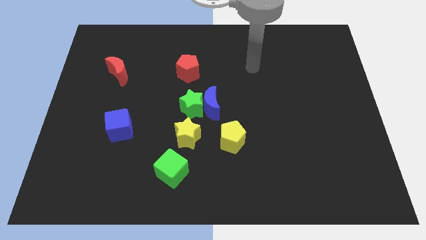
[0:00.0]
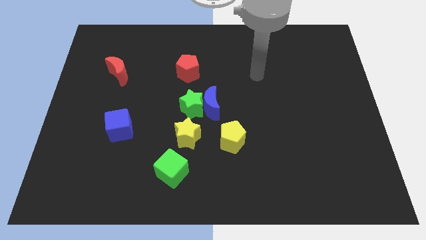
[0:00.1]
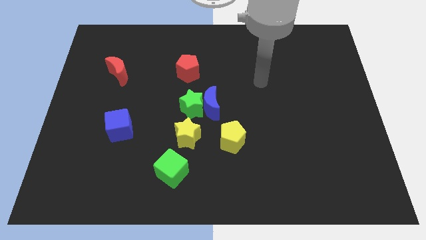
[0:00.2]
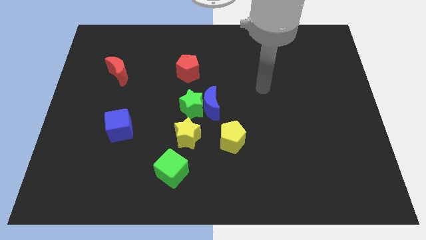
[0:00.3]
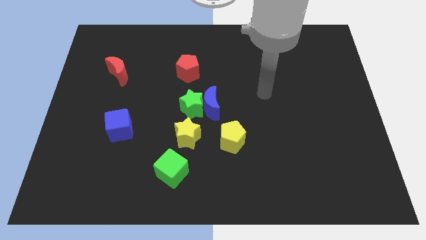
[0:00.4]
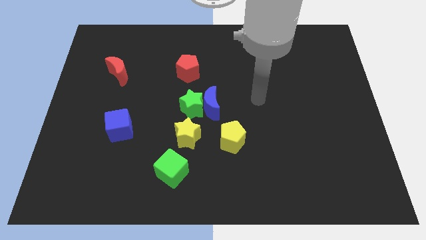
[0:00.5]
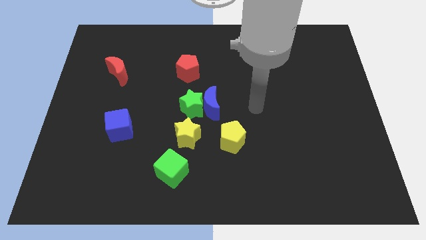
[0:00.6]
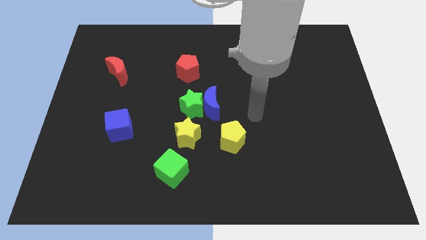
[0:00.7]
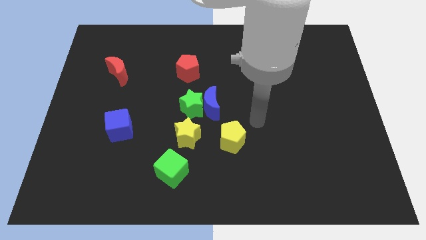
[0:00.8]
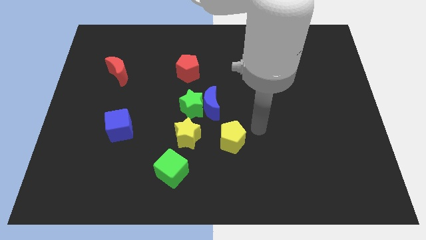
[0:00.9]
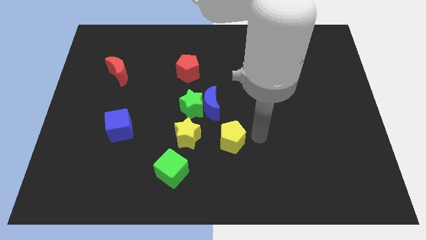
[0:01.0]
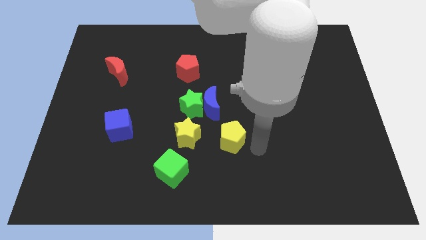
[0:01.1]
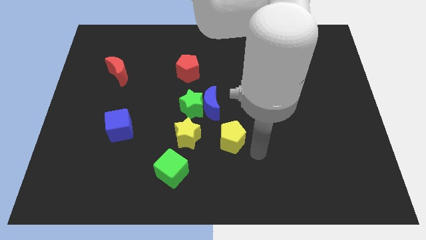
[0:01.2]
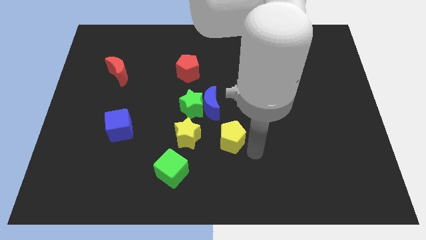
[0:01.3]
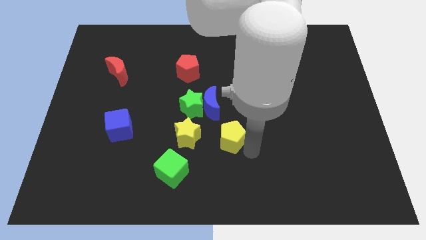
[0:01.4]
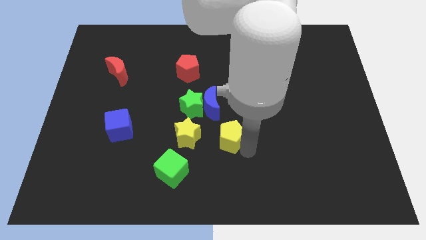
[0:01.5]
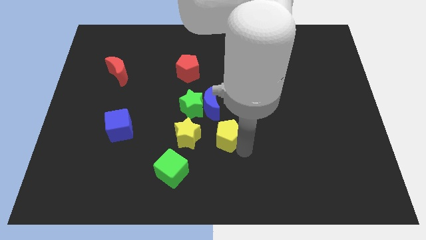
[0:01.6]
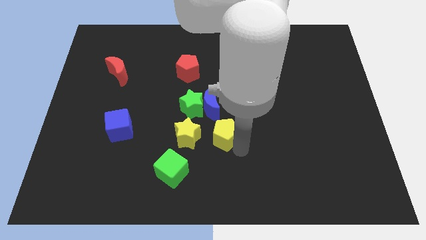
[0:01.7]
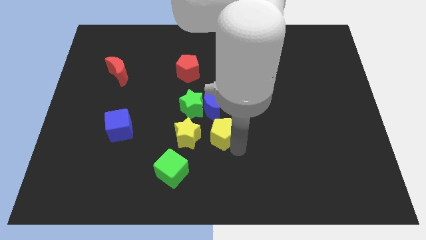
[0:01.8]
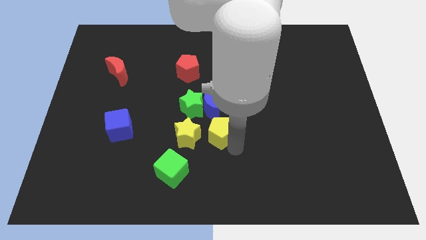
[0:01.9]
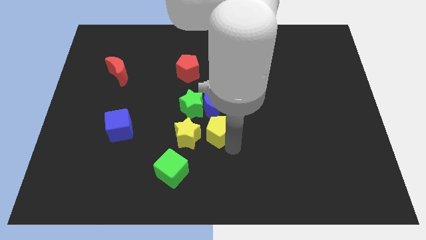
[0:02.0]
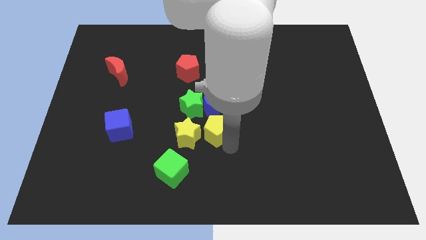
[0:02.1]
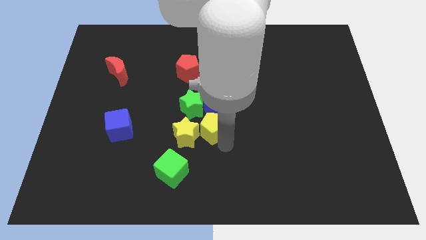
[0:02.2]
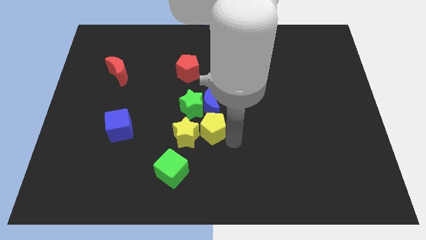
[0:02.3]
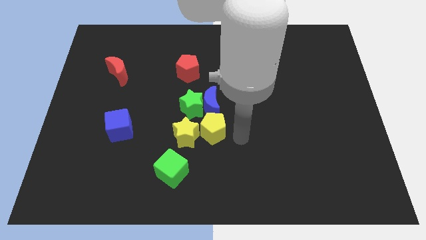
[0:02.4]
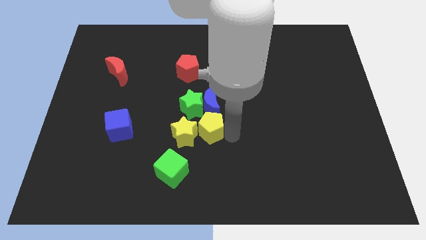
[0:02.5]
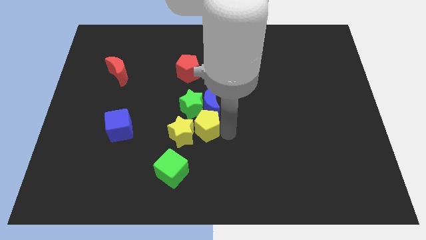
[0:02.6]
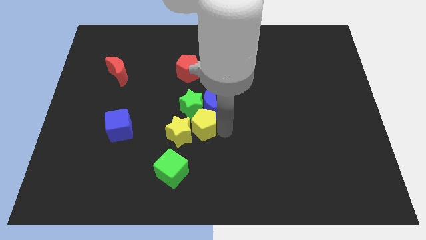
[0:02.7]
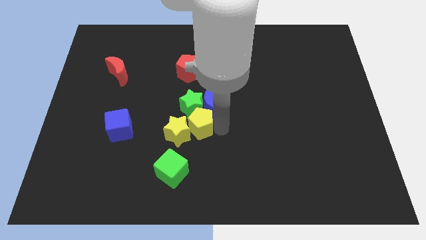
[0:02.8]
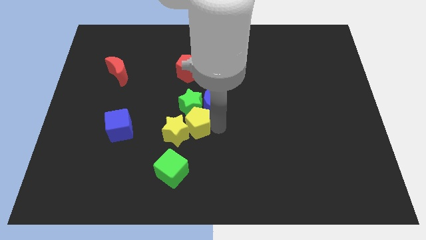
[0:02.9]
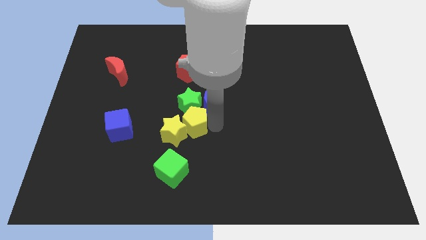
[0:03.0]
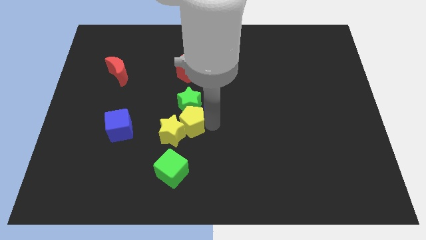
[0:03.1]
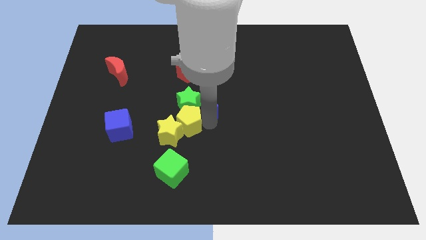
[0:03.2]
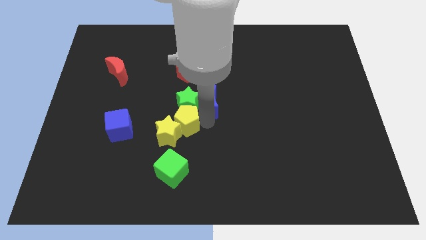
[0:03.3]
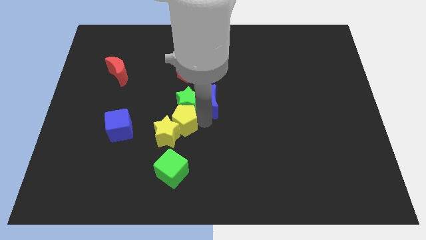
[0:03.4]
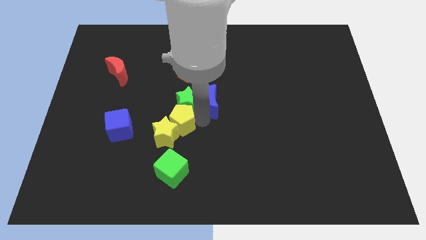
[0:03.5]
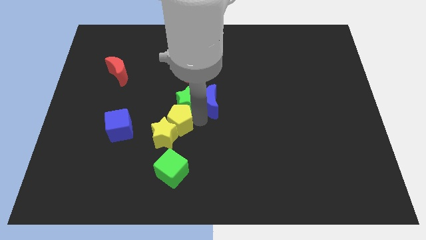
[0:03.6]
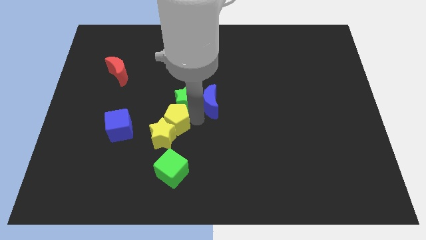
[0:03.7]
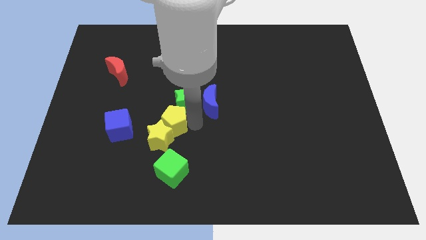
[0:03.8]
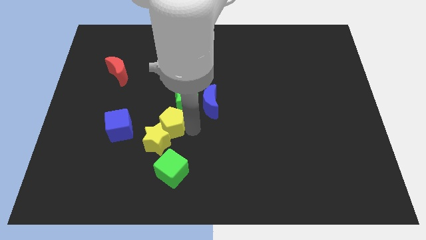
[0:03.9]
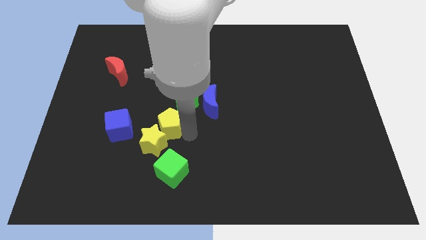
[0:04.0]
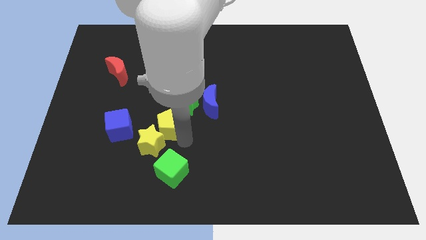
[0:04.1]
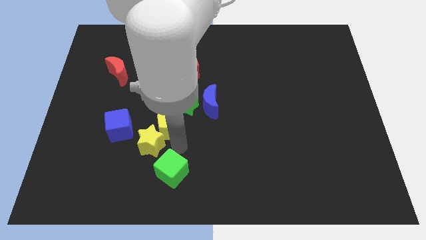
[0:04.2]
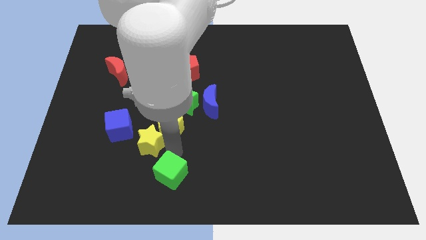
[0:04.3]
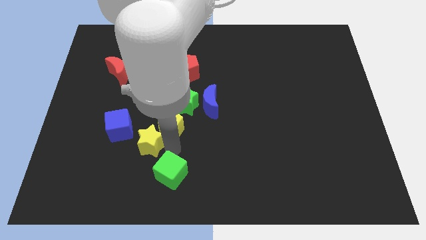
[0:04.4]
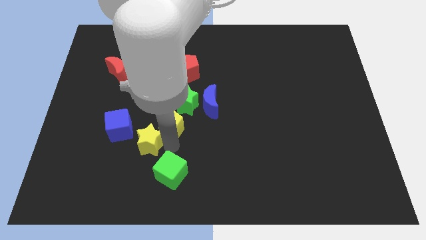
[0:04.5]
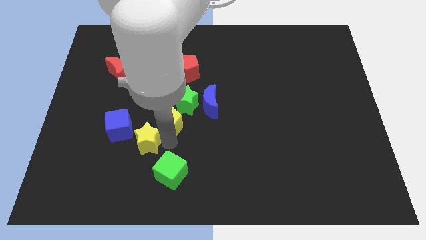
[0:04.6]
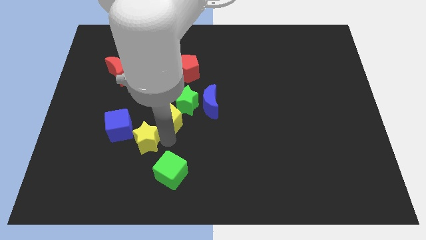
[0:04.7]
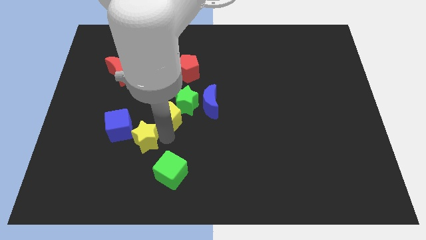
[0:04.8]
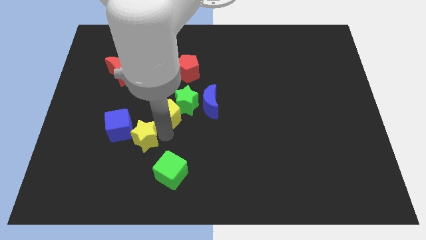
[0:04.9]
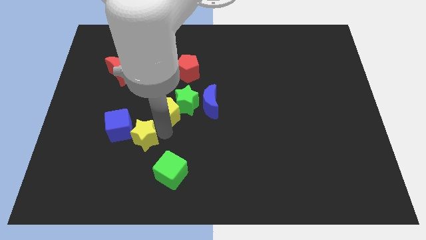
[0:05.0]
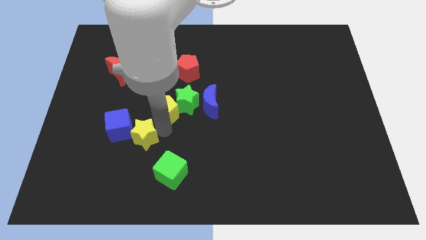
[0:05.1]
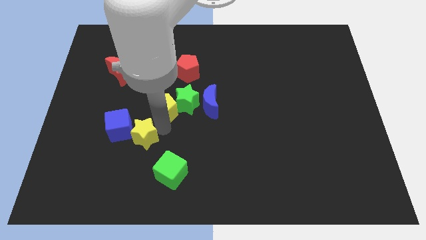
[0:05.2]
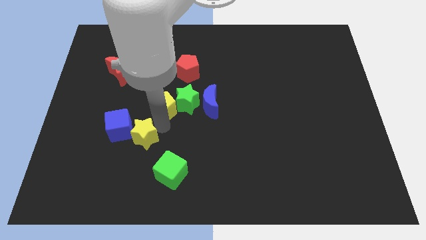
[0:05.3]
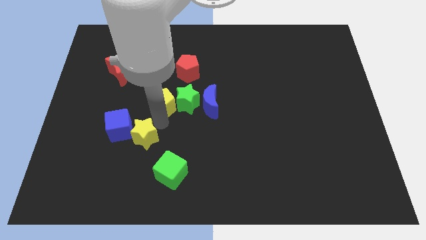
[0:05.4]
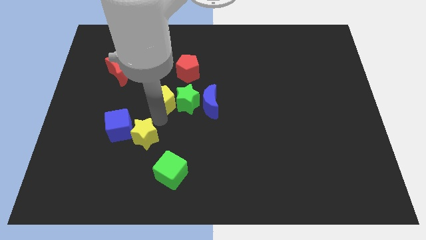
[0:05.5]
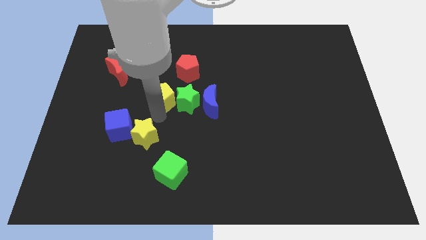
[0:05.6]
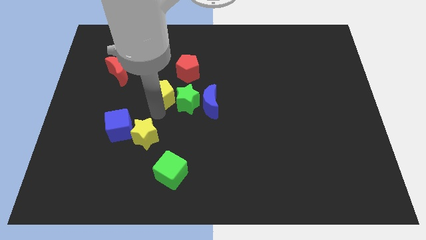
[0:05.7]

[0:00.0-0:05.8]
move the yellow pentagon diagonally upwards and left

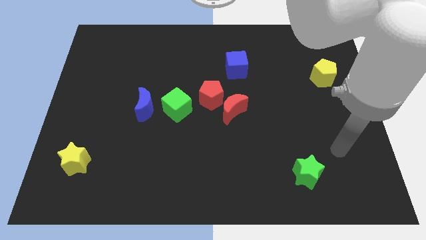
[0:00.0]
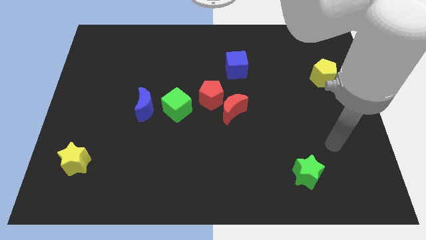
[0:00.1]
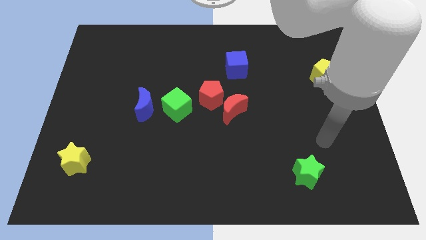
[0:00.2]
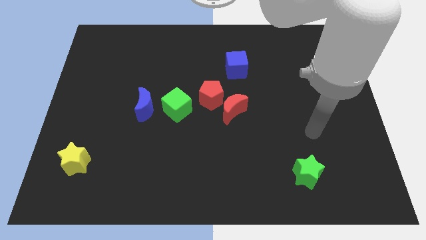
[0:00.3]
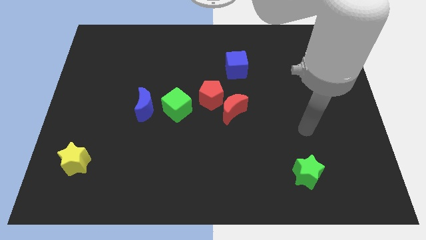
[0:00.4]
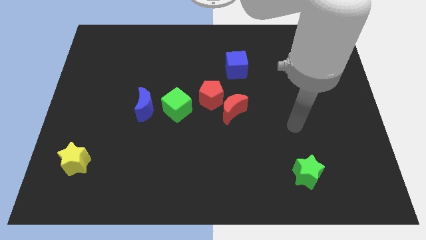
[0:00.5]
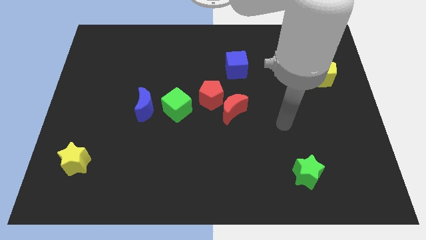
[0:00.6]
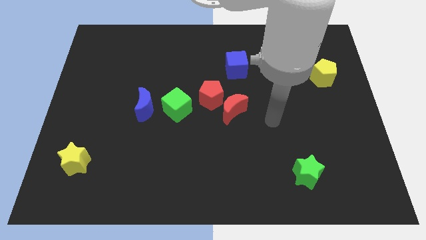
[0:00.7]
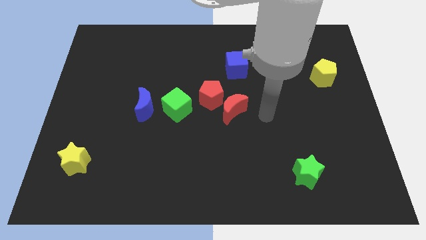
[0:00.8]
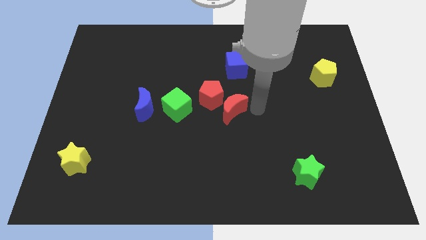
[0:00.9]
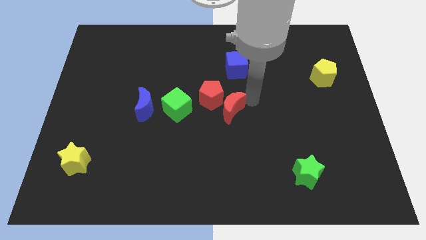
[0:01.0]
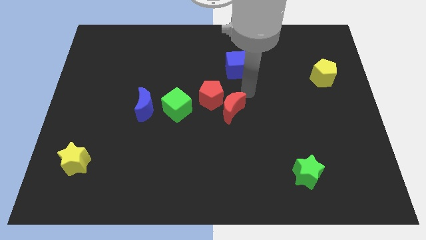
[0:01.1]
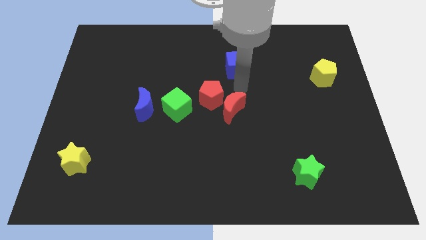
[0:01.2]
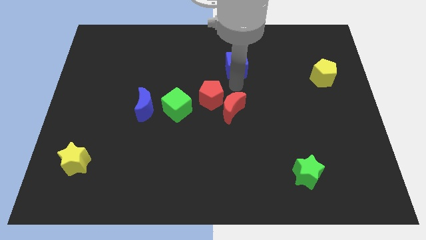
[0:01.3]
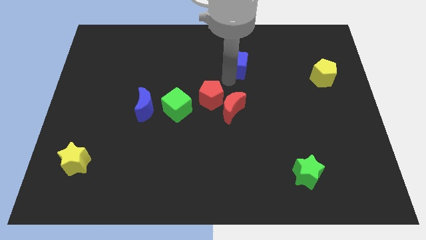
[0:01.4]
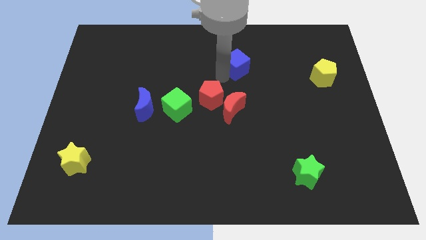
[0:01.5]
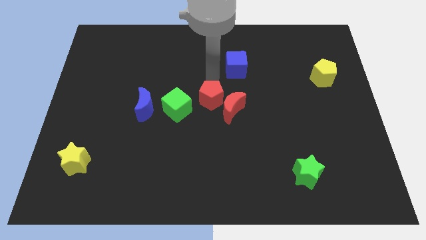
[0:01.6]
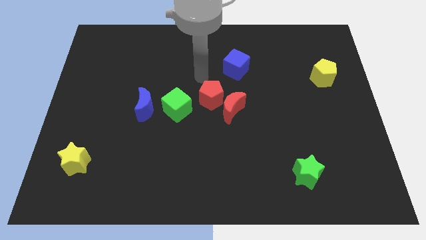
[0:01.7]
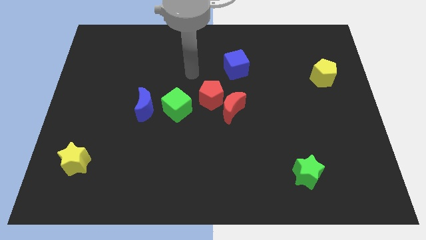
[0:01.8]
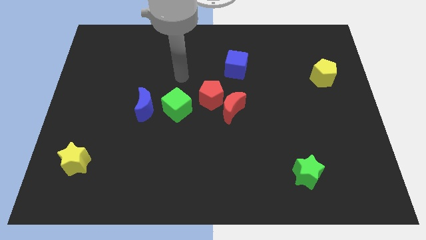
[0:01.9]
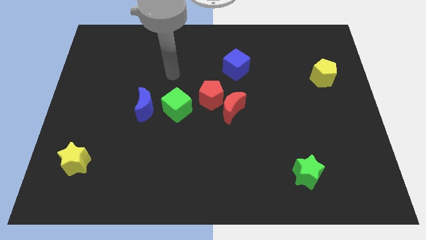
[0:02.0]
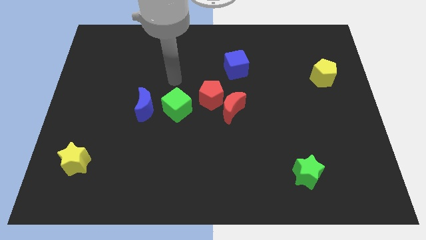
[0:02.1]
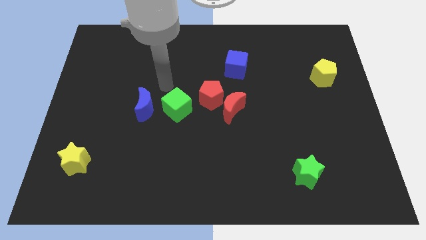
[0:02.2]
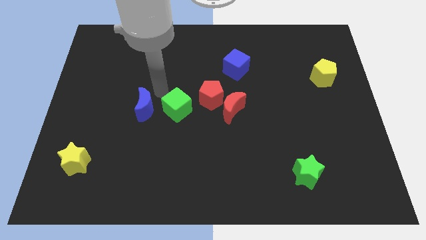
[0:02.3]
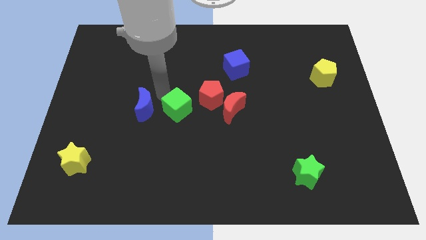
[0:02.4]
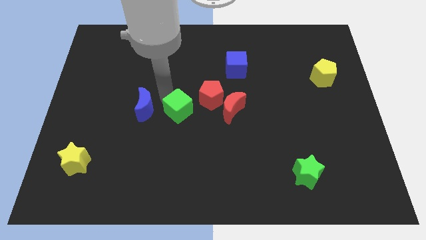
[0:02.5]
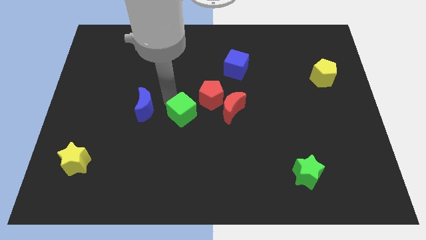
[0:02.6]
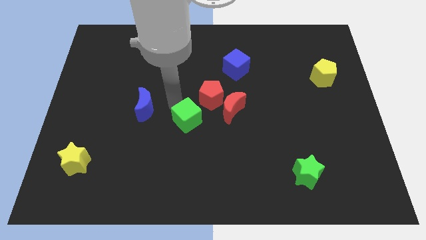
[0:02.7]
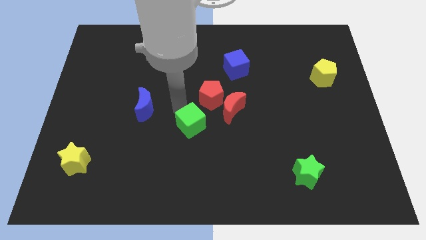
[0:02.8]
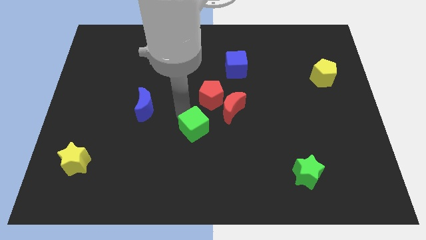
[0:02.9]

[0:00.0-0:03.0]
slightly slide the green cube downwards and right
